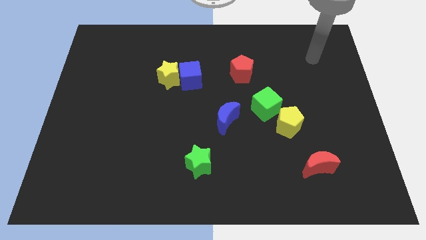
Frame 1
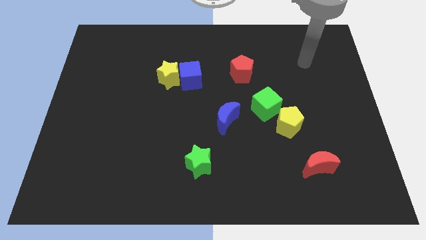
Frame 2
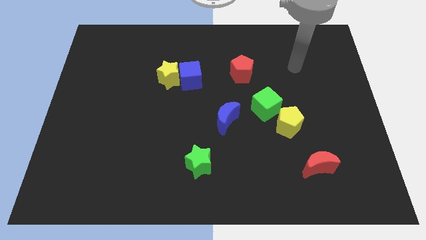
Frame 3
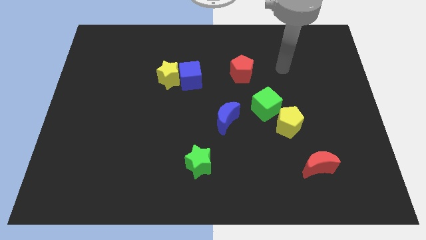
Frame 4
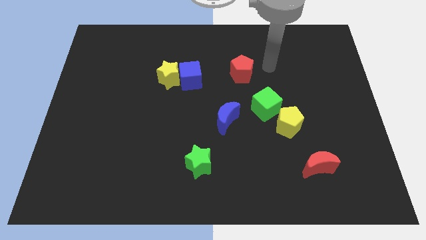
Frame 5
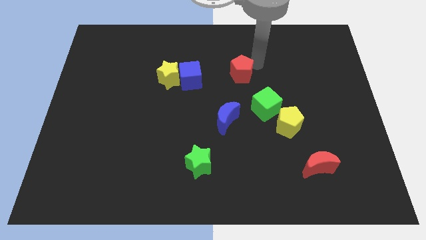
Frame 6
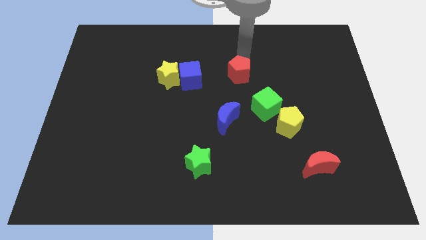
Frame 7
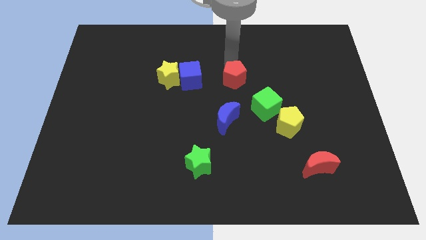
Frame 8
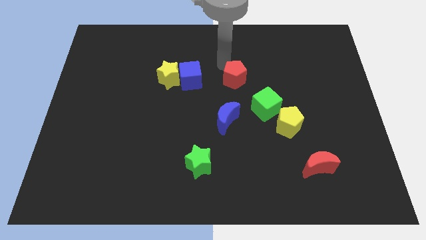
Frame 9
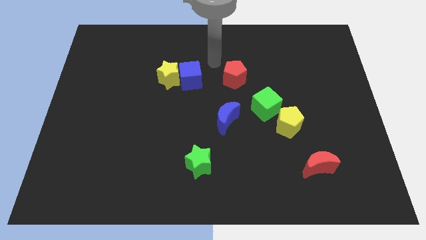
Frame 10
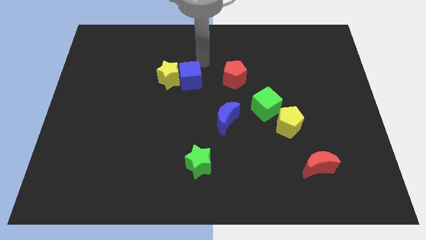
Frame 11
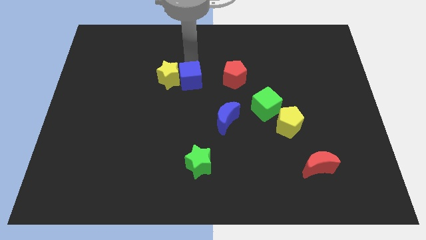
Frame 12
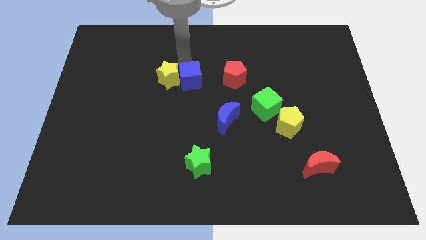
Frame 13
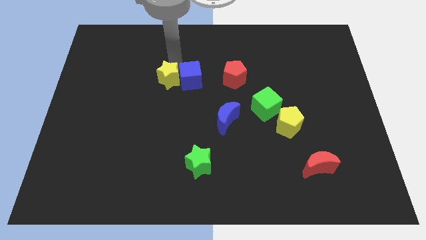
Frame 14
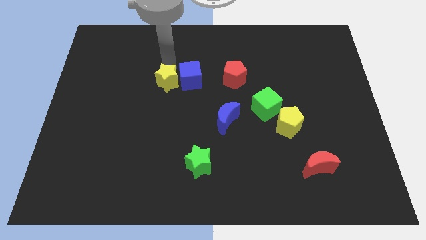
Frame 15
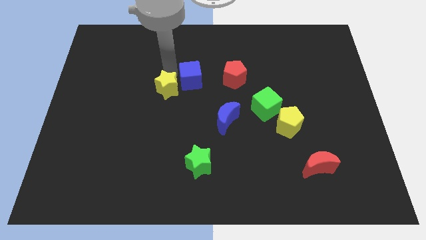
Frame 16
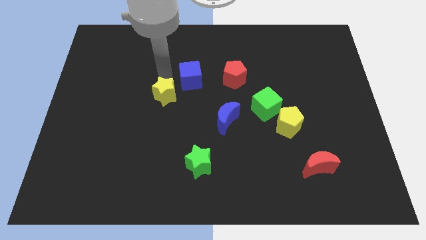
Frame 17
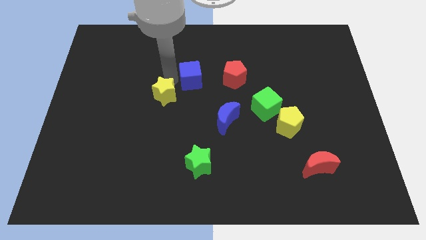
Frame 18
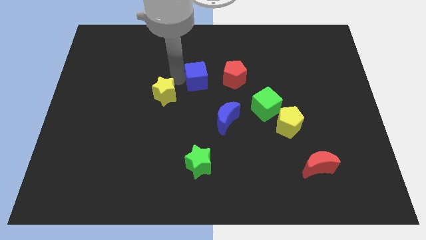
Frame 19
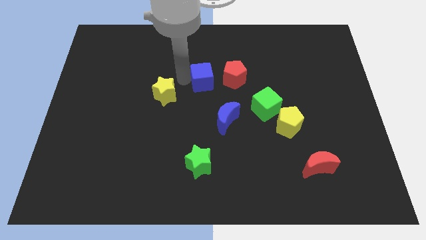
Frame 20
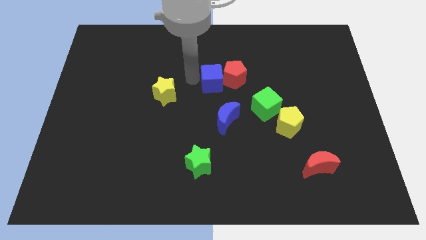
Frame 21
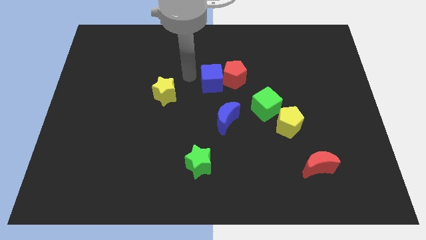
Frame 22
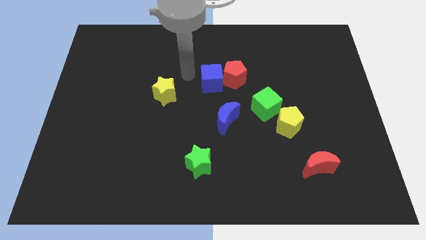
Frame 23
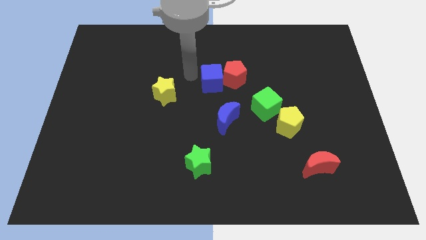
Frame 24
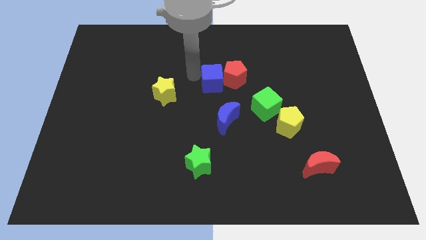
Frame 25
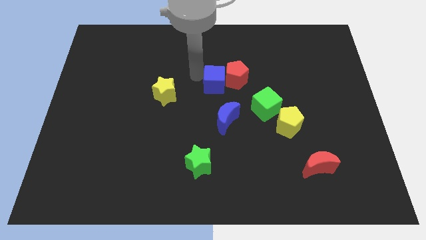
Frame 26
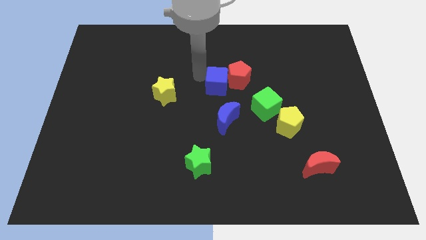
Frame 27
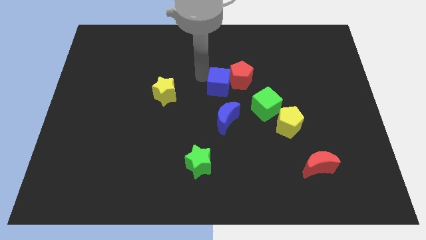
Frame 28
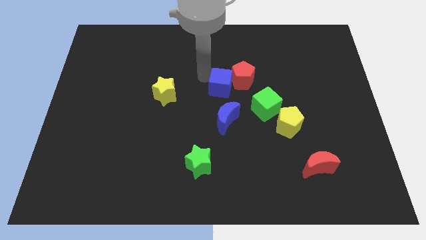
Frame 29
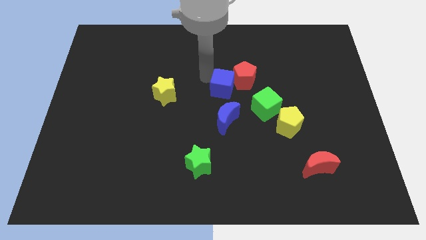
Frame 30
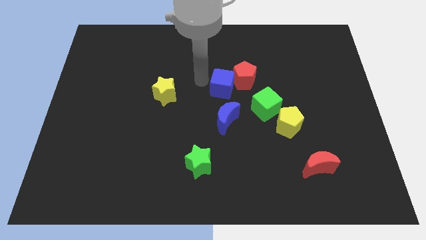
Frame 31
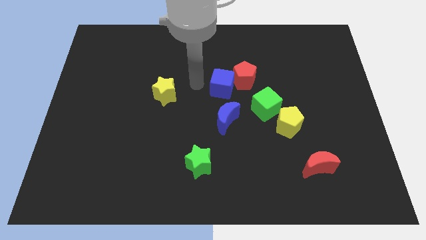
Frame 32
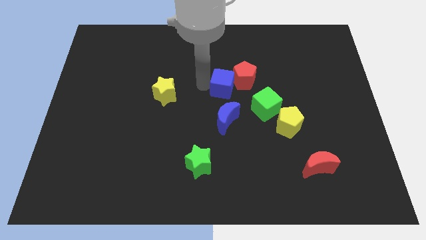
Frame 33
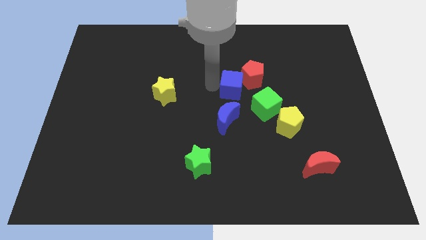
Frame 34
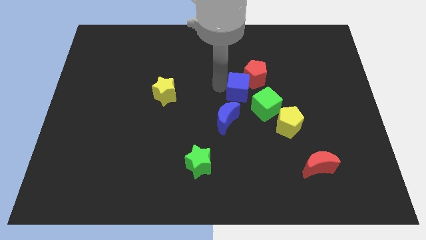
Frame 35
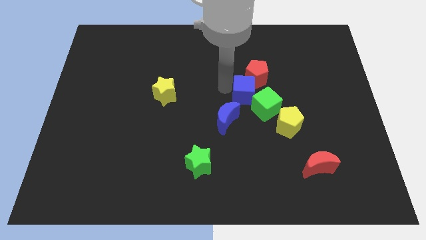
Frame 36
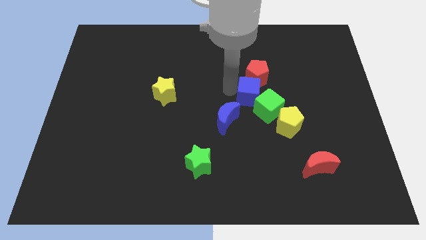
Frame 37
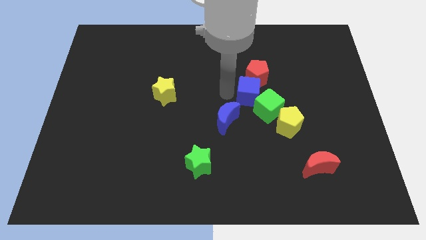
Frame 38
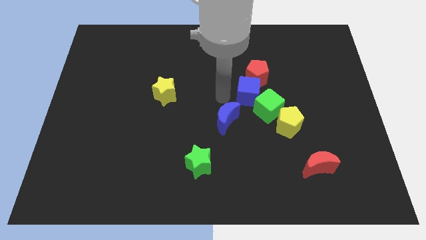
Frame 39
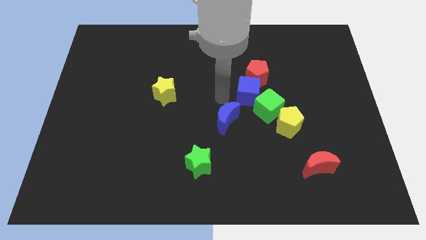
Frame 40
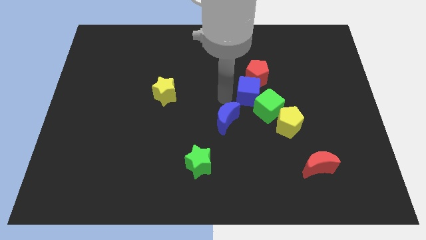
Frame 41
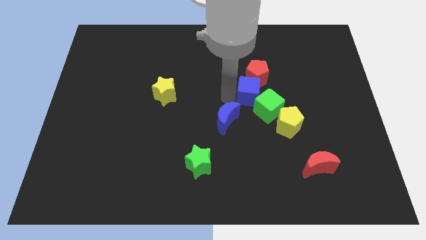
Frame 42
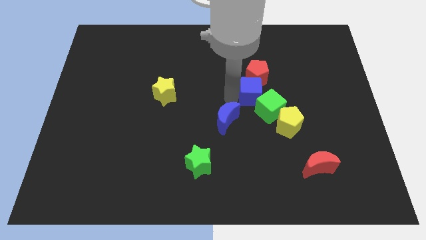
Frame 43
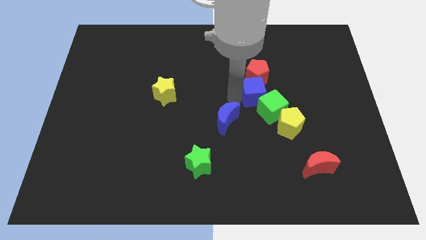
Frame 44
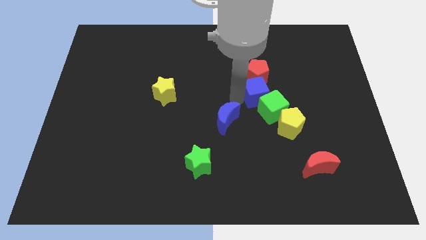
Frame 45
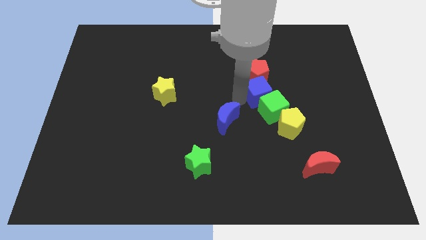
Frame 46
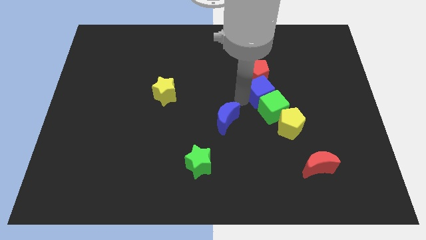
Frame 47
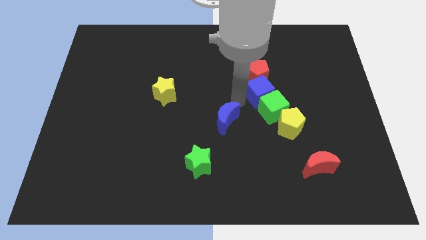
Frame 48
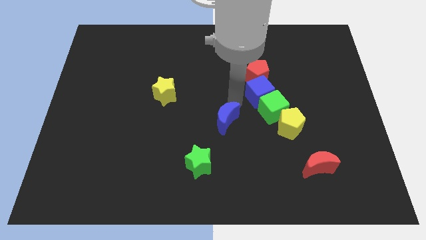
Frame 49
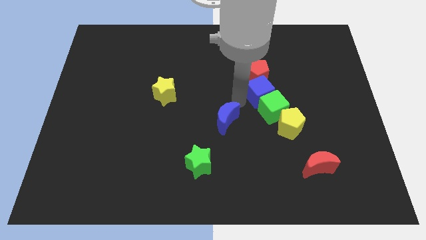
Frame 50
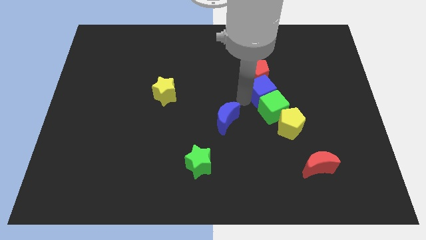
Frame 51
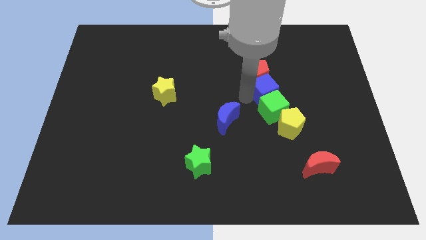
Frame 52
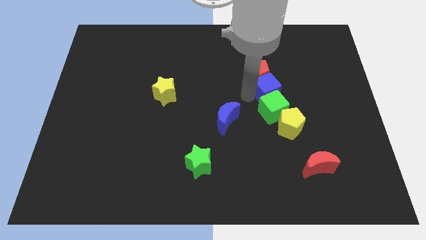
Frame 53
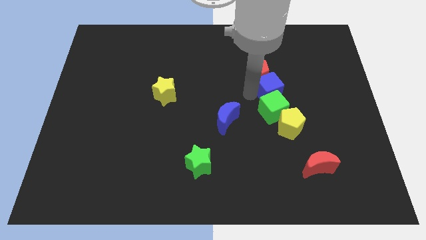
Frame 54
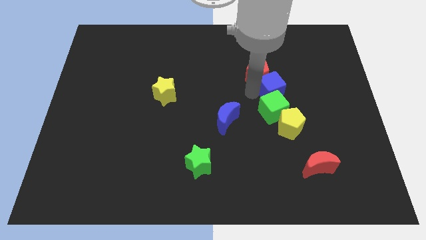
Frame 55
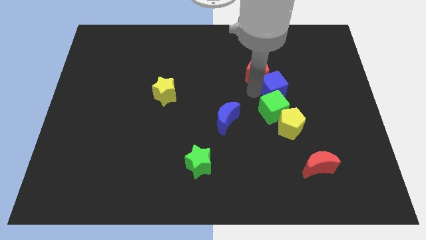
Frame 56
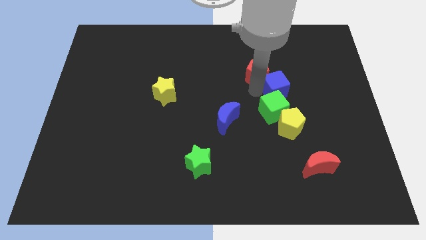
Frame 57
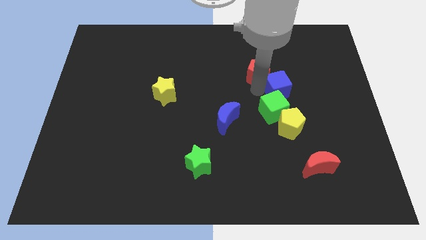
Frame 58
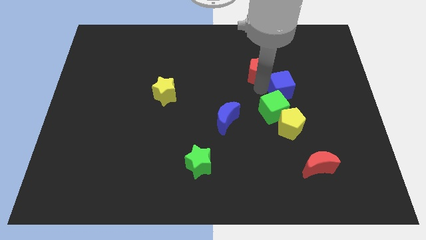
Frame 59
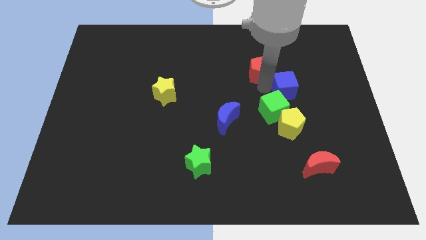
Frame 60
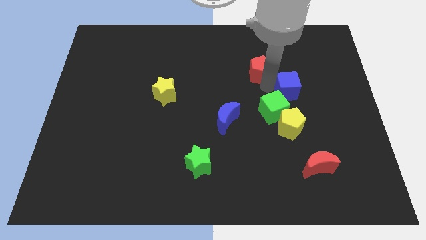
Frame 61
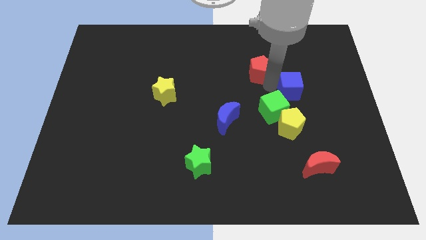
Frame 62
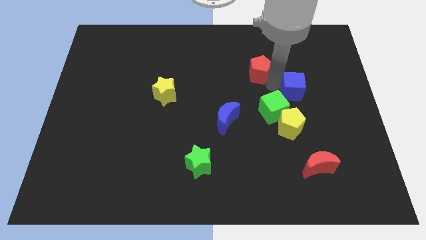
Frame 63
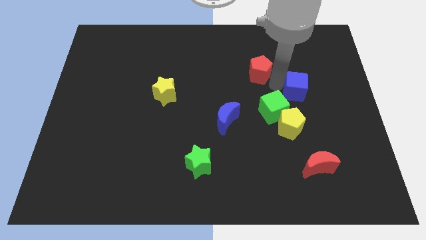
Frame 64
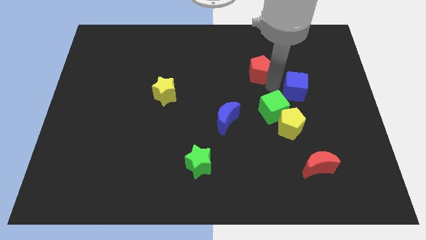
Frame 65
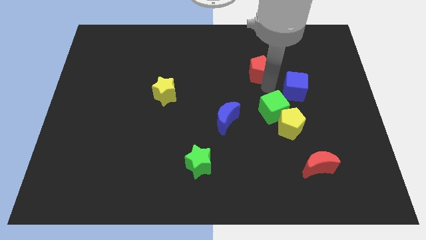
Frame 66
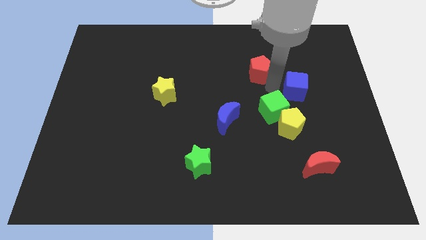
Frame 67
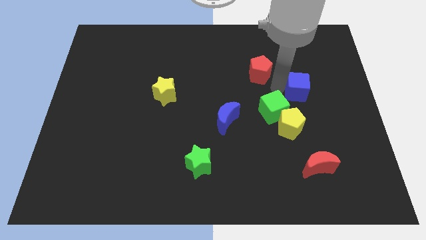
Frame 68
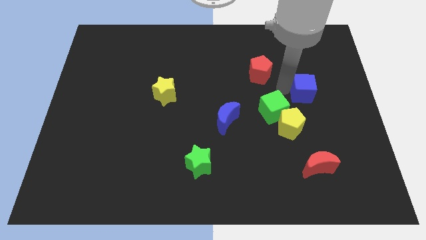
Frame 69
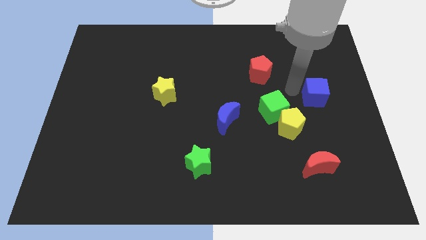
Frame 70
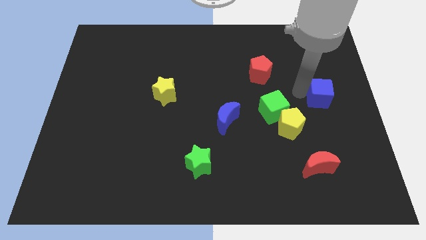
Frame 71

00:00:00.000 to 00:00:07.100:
push the blue cube to the right side of the board
